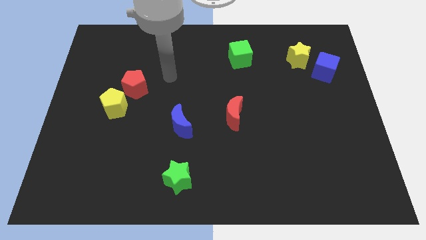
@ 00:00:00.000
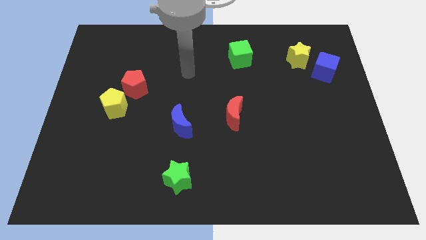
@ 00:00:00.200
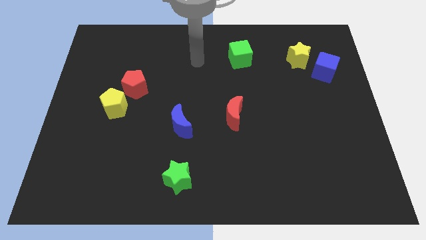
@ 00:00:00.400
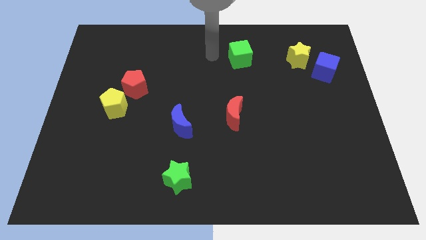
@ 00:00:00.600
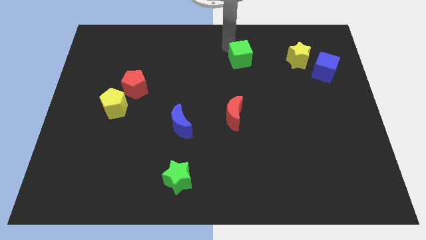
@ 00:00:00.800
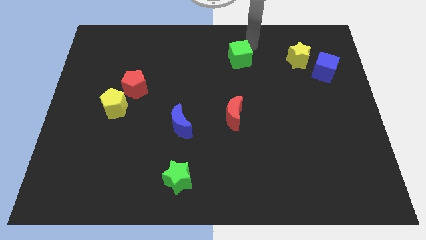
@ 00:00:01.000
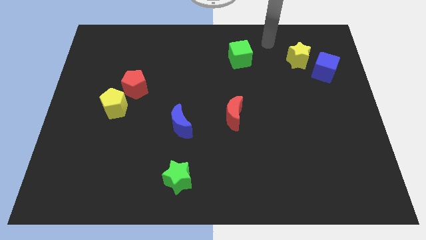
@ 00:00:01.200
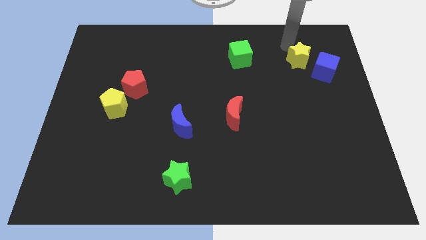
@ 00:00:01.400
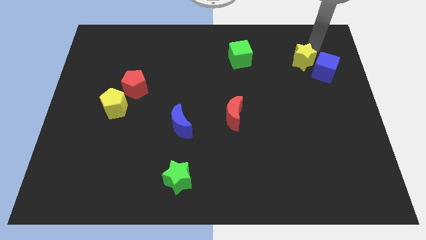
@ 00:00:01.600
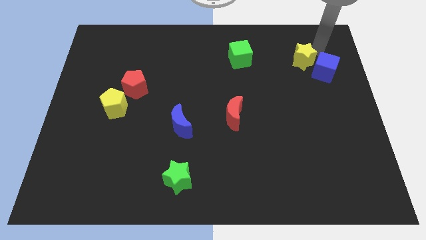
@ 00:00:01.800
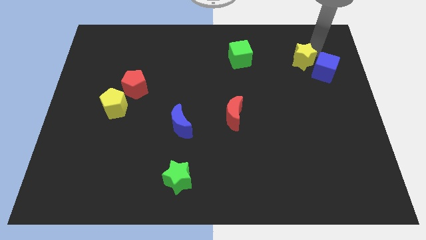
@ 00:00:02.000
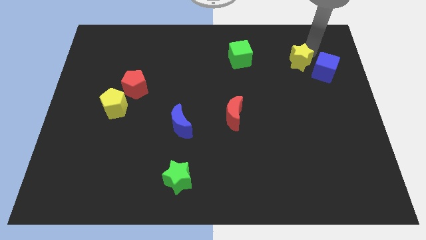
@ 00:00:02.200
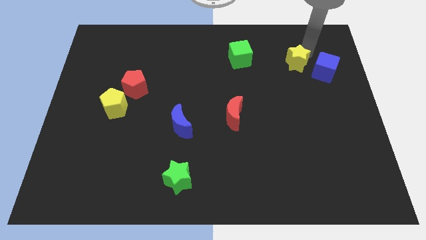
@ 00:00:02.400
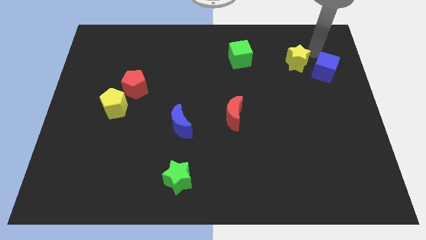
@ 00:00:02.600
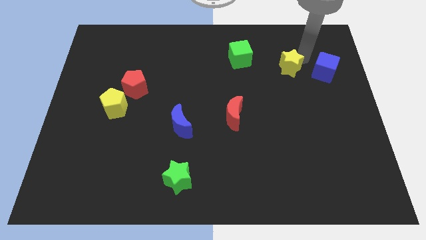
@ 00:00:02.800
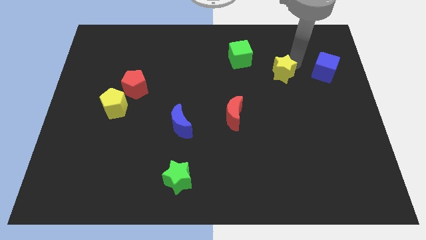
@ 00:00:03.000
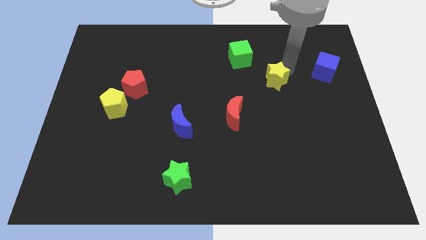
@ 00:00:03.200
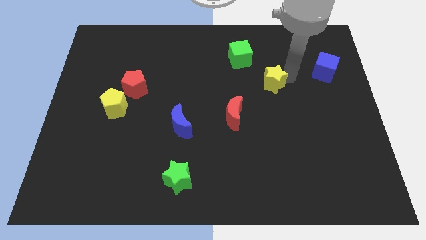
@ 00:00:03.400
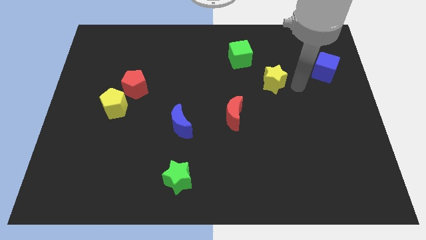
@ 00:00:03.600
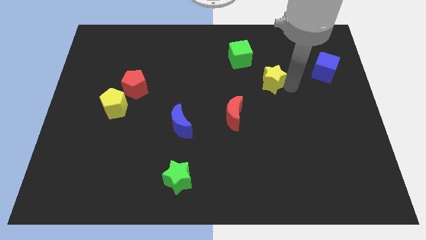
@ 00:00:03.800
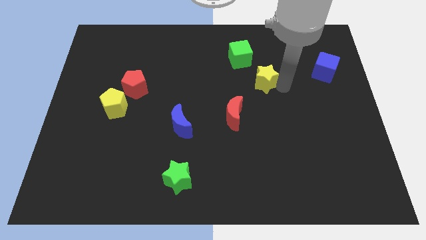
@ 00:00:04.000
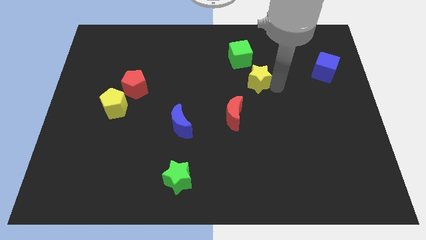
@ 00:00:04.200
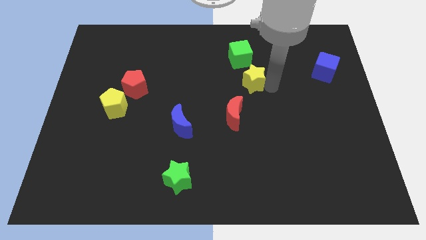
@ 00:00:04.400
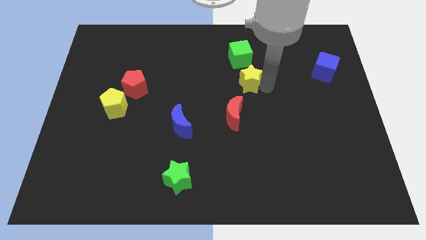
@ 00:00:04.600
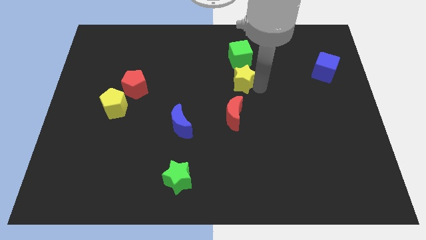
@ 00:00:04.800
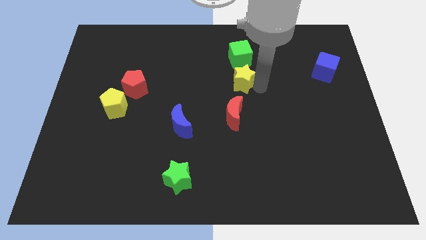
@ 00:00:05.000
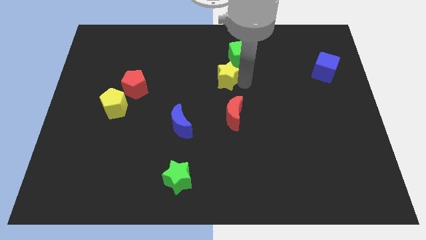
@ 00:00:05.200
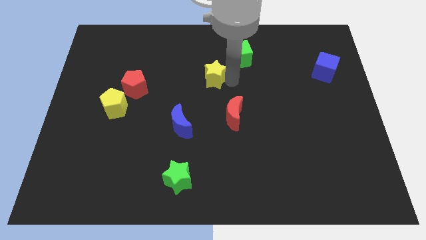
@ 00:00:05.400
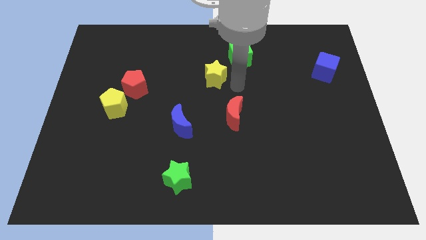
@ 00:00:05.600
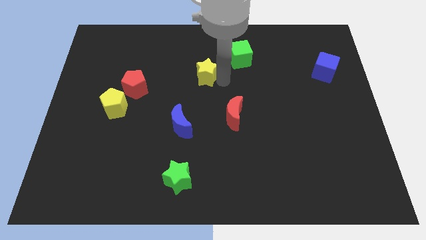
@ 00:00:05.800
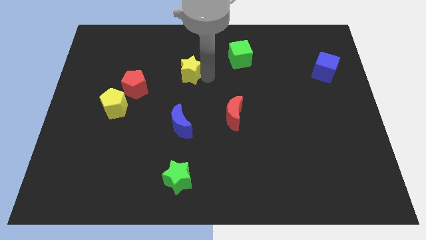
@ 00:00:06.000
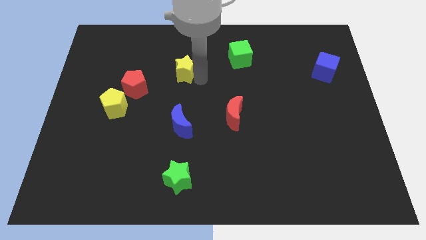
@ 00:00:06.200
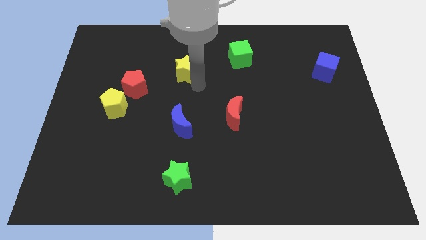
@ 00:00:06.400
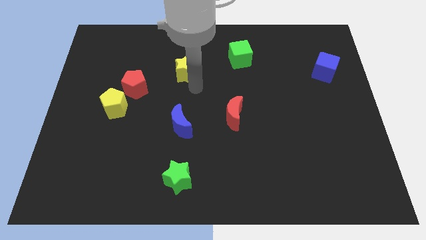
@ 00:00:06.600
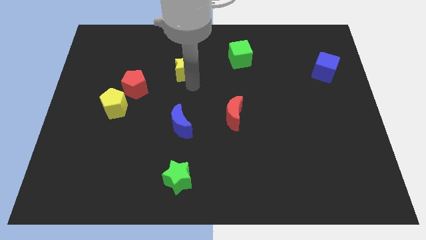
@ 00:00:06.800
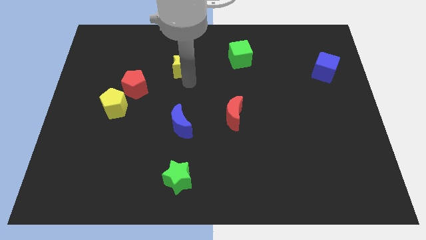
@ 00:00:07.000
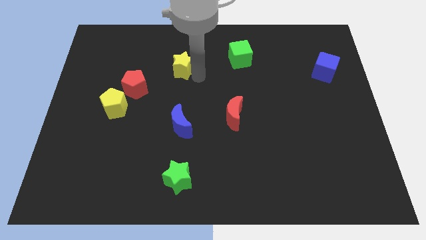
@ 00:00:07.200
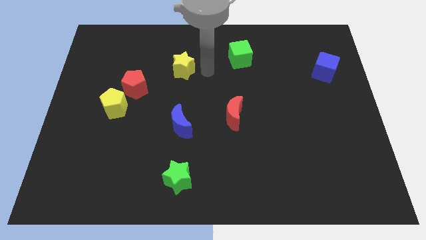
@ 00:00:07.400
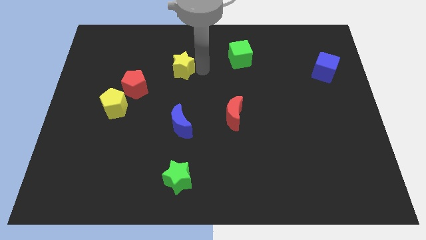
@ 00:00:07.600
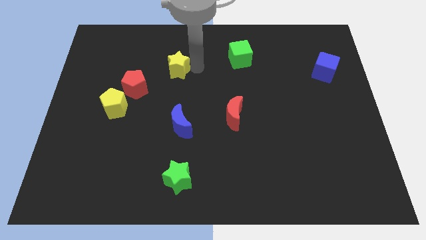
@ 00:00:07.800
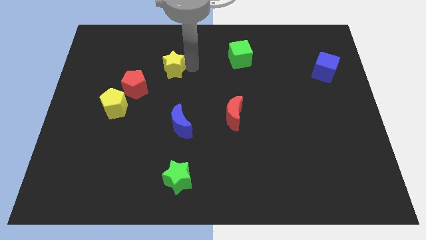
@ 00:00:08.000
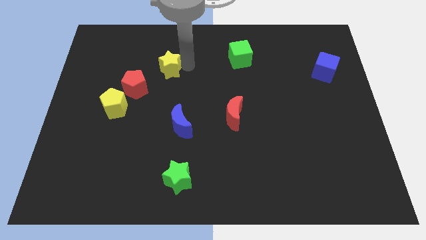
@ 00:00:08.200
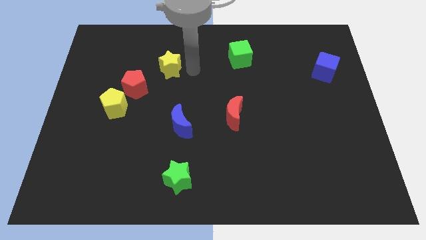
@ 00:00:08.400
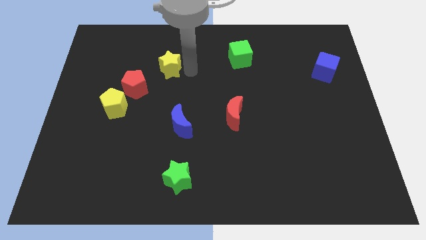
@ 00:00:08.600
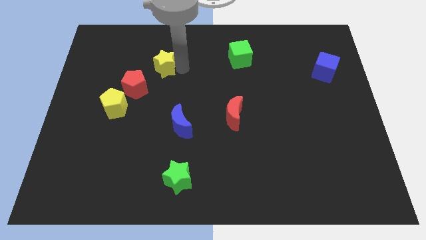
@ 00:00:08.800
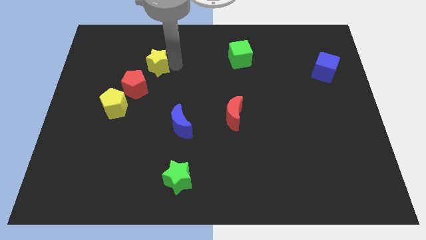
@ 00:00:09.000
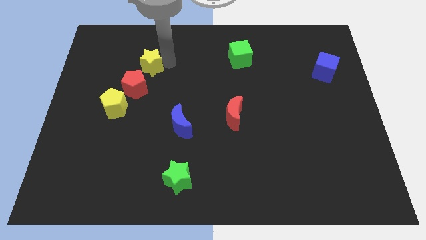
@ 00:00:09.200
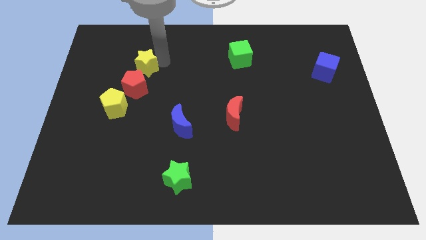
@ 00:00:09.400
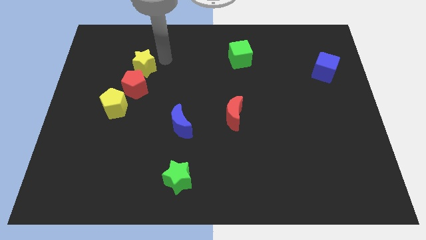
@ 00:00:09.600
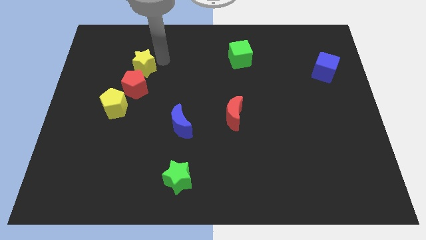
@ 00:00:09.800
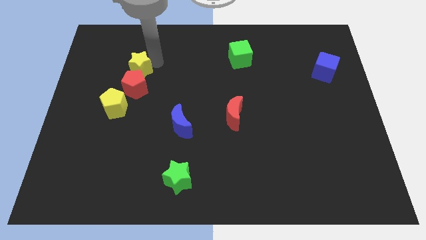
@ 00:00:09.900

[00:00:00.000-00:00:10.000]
put the yellow star to the top side of the yellow pentagon

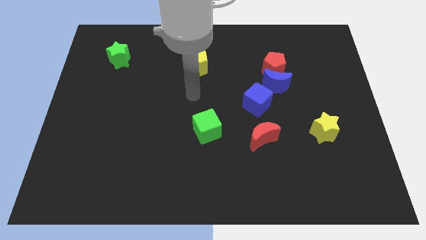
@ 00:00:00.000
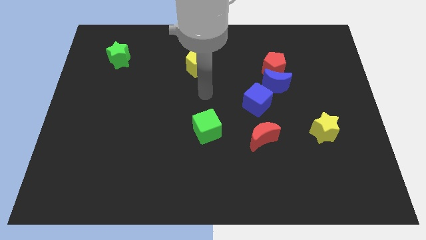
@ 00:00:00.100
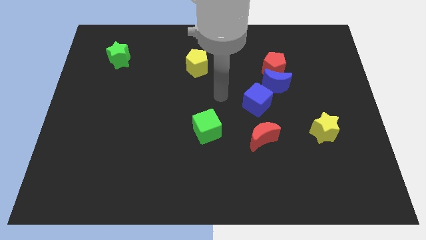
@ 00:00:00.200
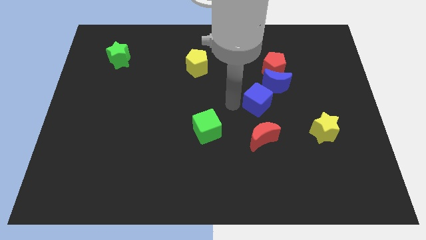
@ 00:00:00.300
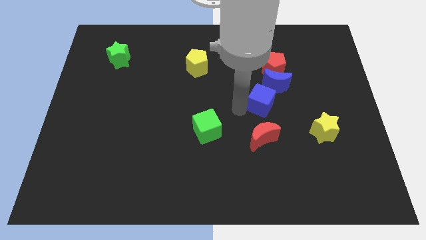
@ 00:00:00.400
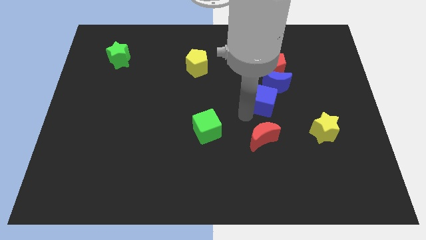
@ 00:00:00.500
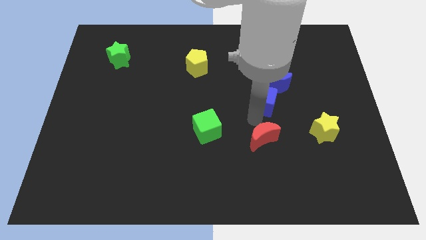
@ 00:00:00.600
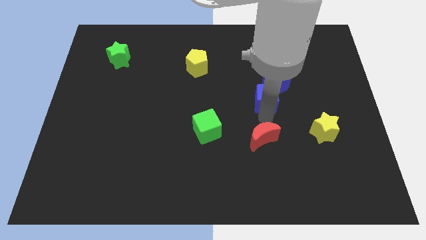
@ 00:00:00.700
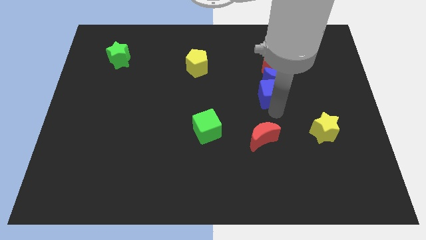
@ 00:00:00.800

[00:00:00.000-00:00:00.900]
slide the blue moon to the top left of the blue cube
